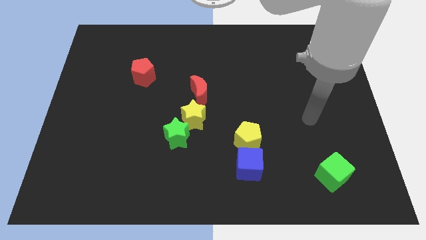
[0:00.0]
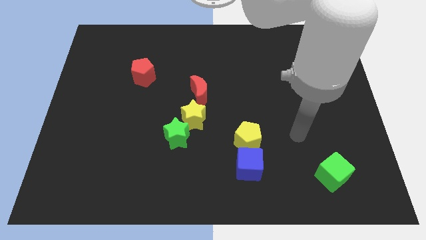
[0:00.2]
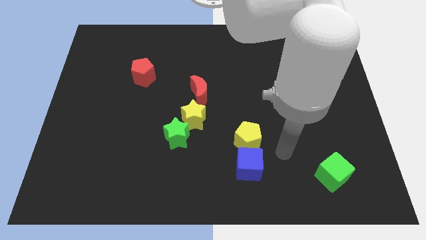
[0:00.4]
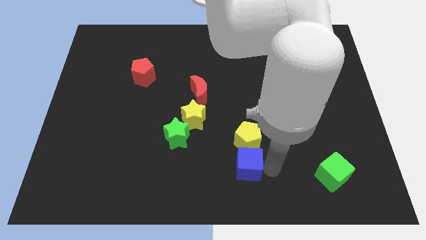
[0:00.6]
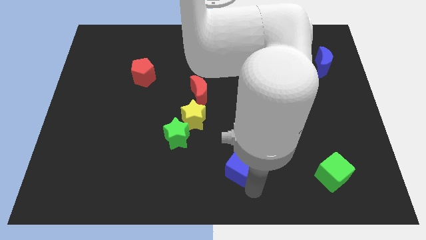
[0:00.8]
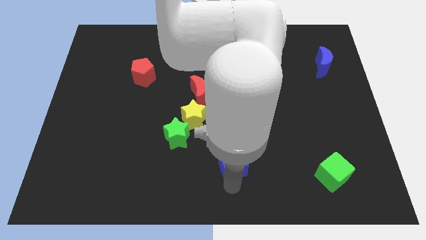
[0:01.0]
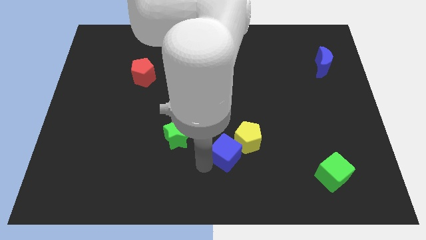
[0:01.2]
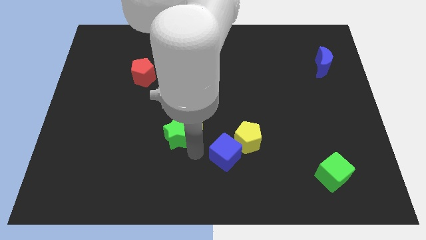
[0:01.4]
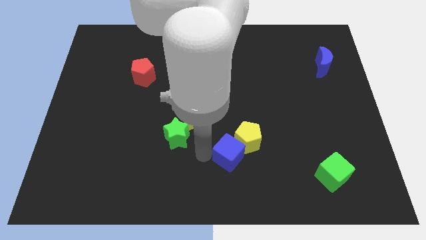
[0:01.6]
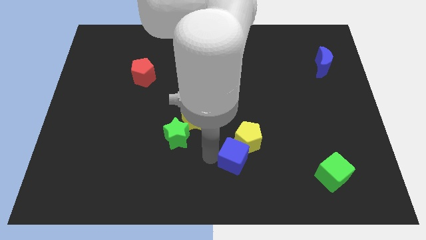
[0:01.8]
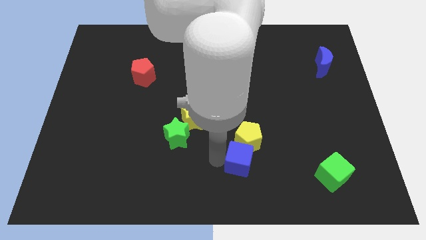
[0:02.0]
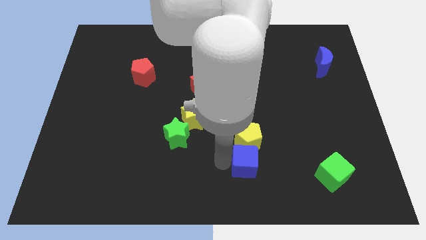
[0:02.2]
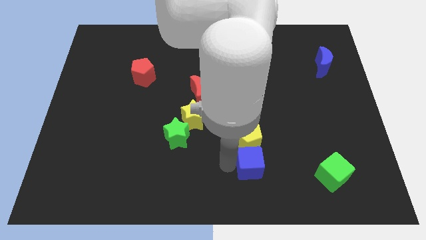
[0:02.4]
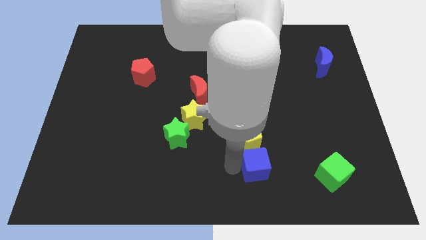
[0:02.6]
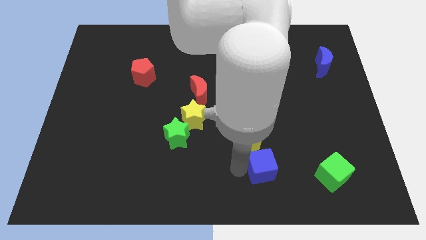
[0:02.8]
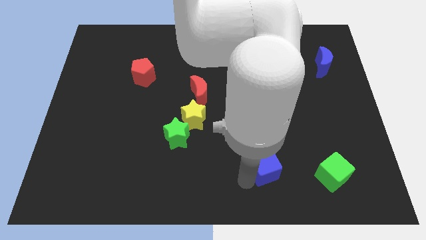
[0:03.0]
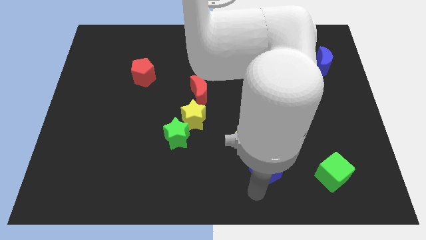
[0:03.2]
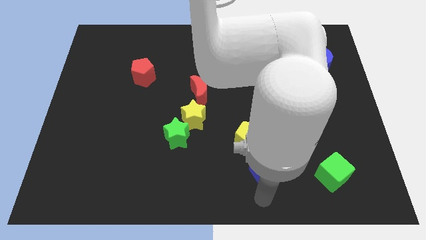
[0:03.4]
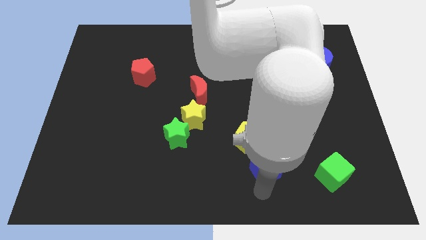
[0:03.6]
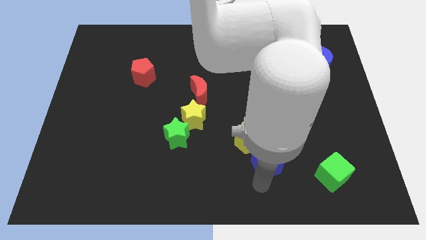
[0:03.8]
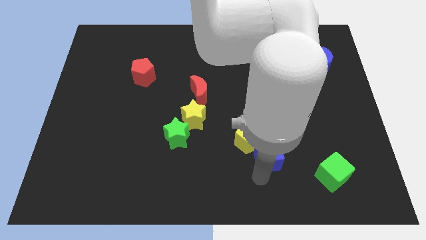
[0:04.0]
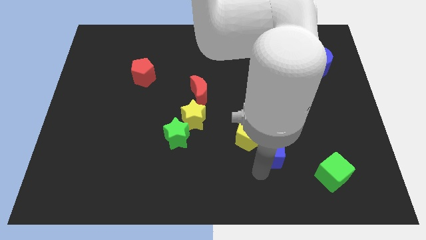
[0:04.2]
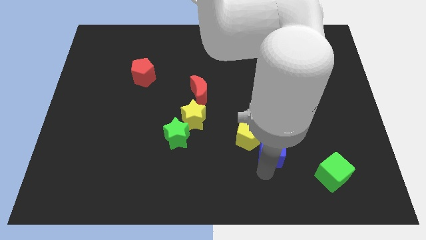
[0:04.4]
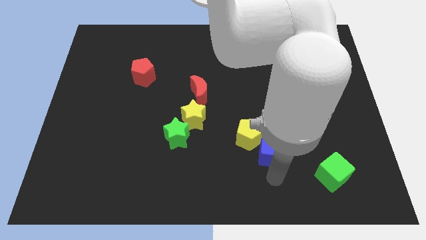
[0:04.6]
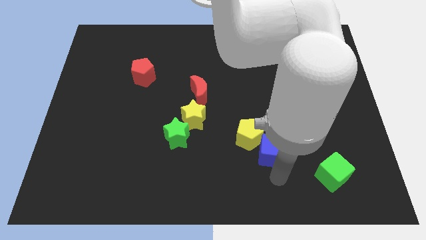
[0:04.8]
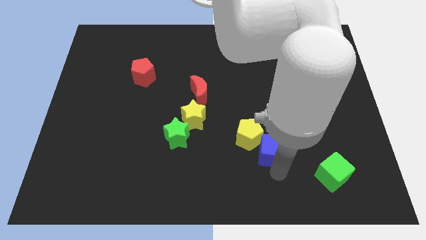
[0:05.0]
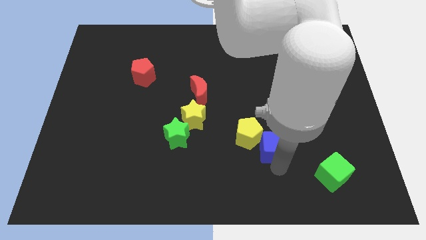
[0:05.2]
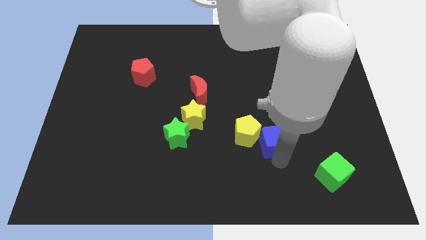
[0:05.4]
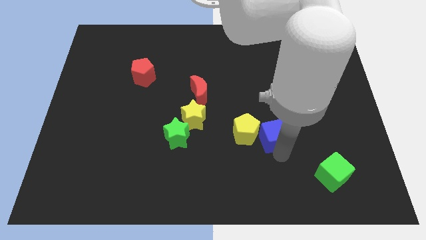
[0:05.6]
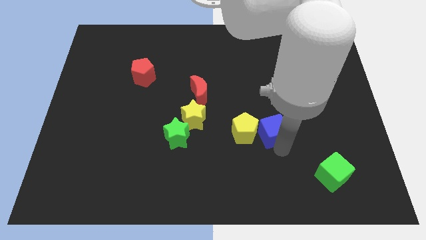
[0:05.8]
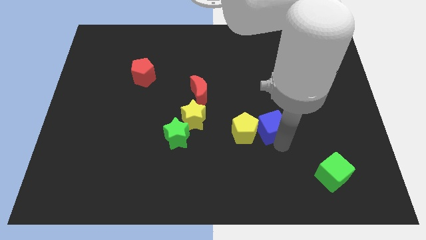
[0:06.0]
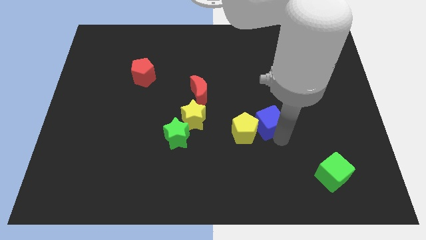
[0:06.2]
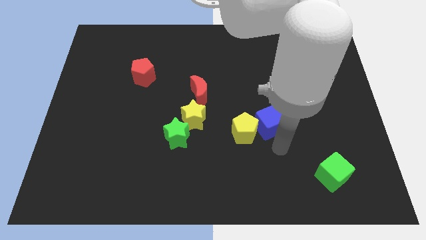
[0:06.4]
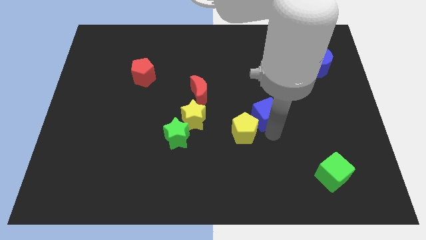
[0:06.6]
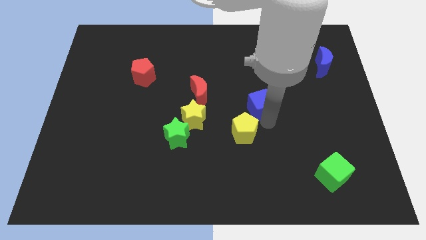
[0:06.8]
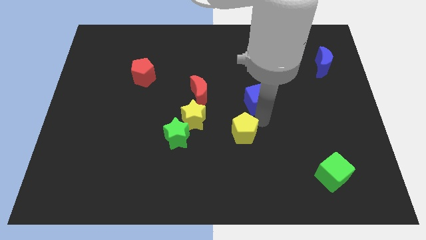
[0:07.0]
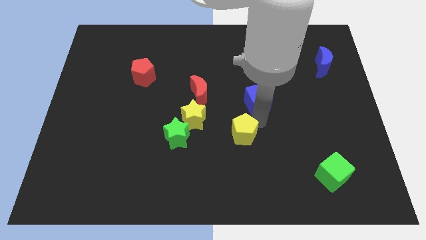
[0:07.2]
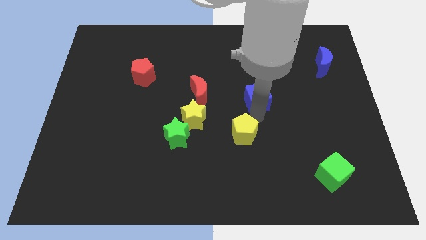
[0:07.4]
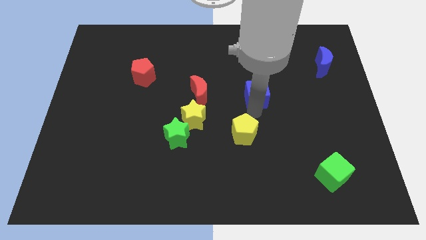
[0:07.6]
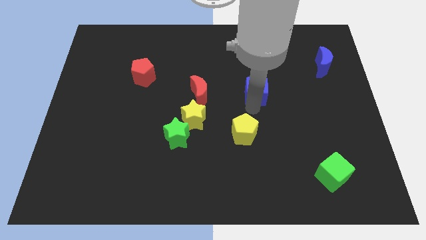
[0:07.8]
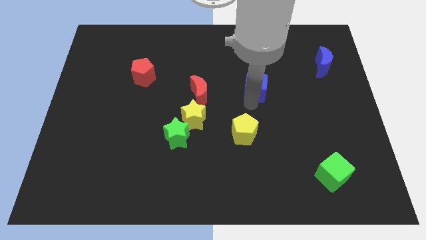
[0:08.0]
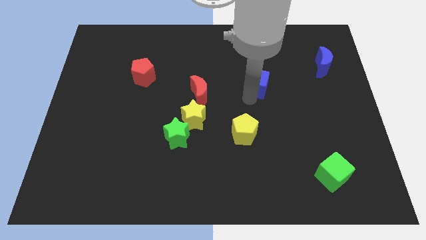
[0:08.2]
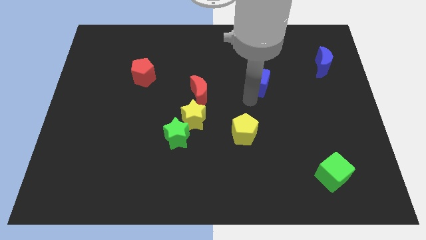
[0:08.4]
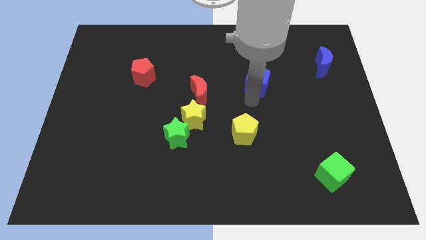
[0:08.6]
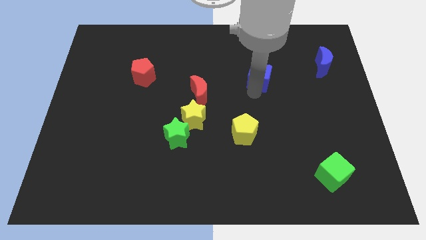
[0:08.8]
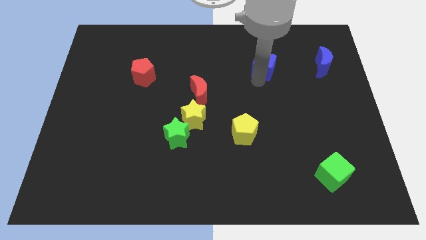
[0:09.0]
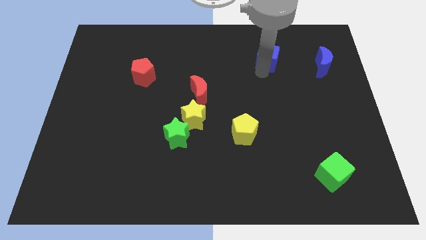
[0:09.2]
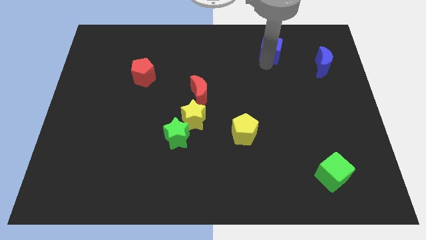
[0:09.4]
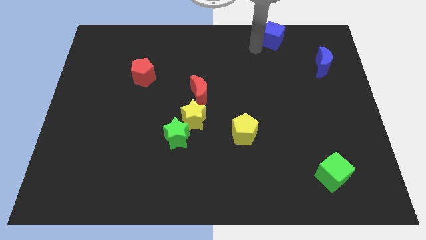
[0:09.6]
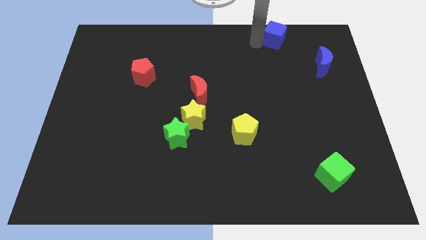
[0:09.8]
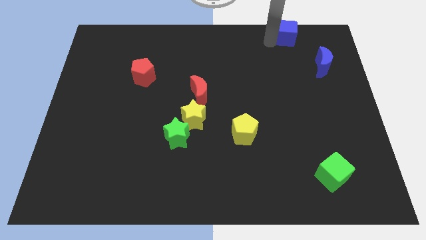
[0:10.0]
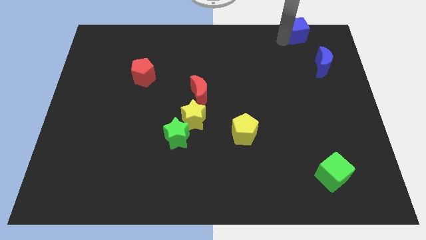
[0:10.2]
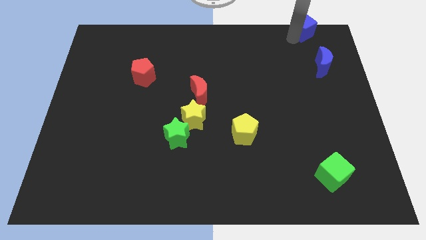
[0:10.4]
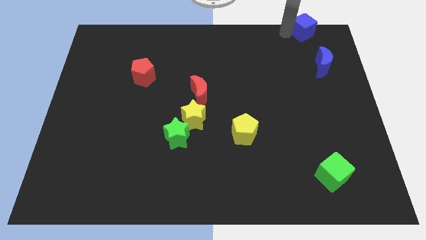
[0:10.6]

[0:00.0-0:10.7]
put the blue cube to the top right of the board
